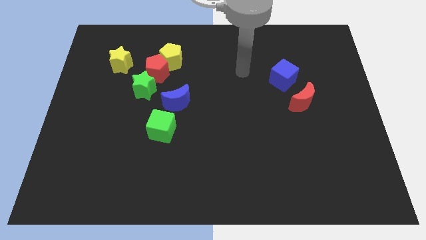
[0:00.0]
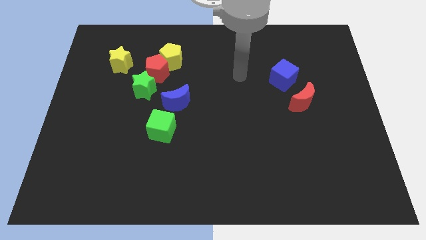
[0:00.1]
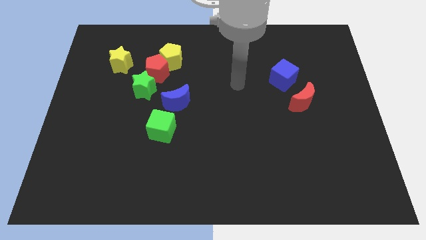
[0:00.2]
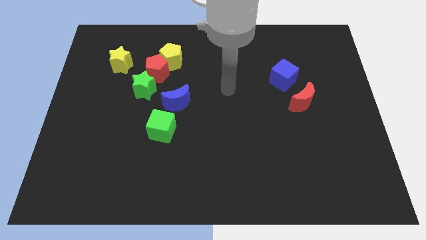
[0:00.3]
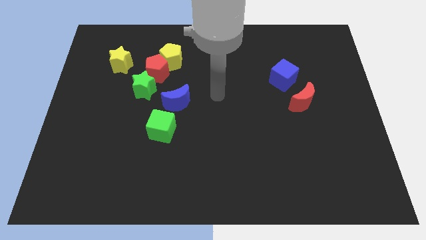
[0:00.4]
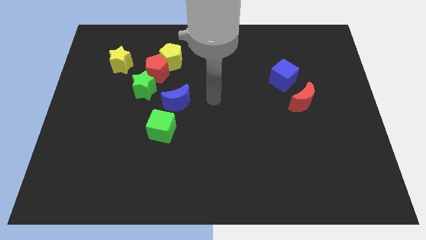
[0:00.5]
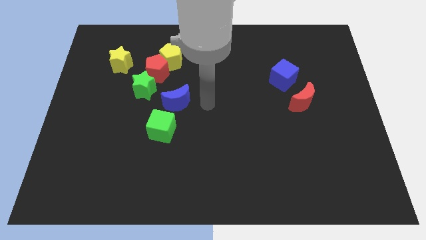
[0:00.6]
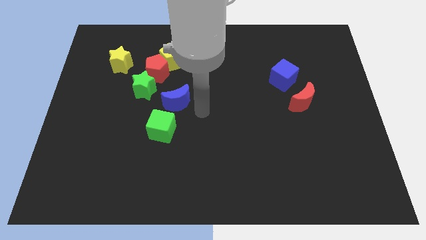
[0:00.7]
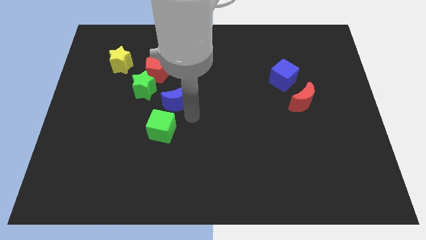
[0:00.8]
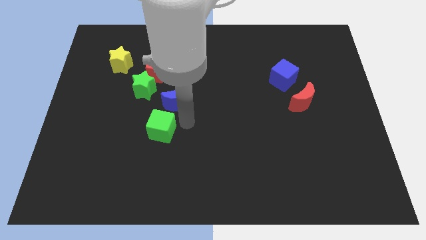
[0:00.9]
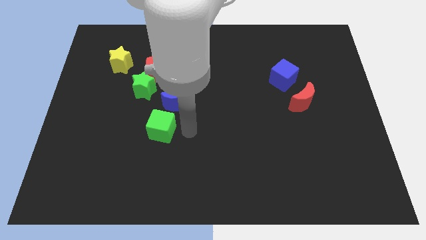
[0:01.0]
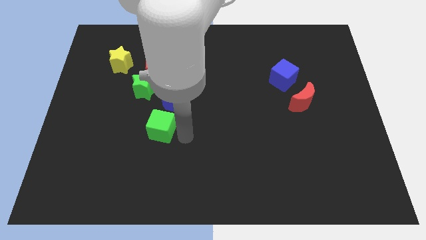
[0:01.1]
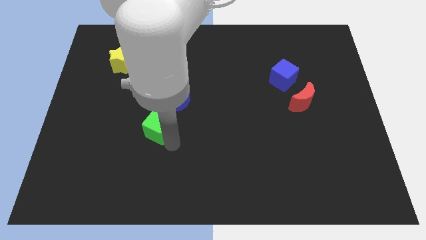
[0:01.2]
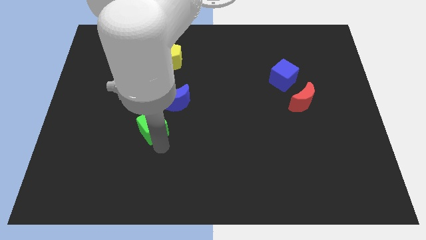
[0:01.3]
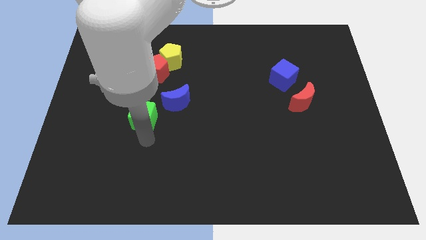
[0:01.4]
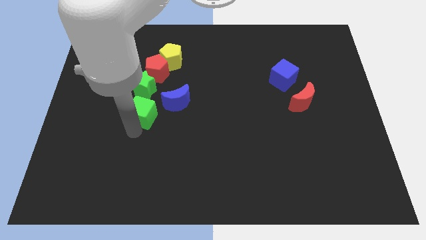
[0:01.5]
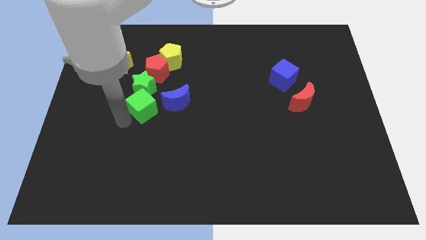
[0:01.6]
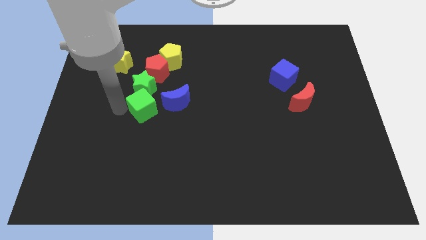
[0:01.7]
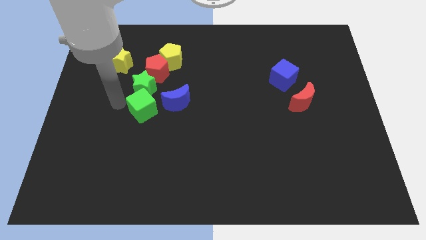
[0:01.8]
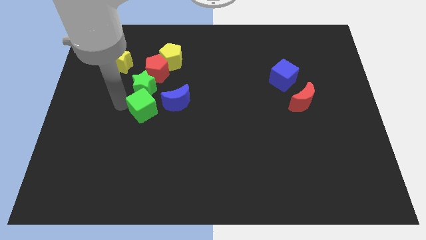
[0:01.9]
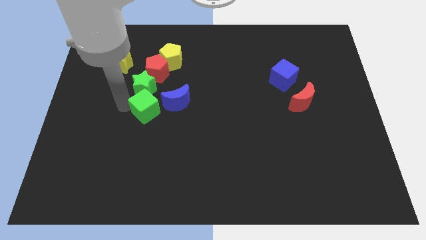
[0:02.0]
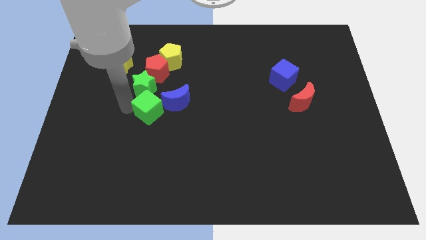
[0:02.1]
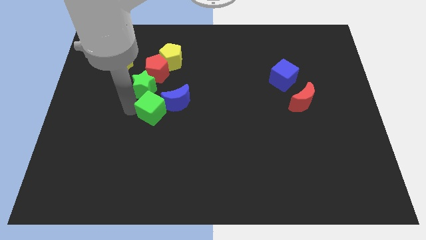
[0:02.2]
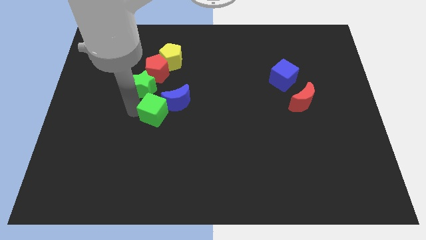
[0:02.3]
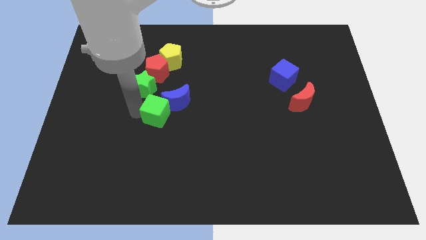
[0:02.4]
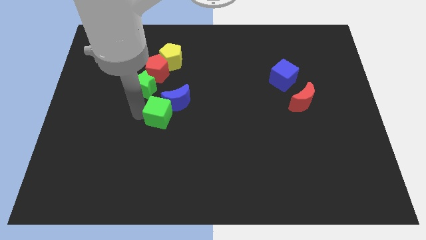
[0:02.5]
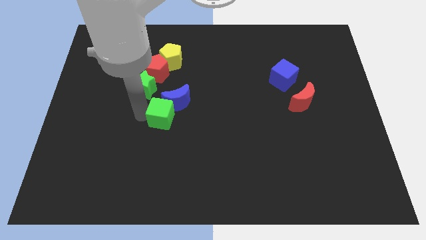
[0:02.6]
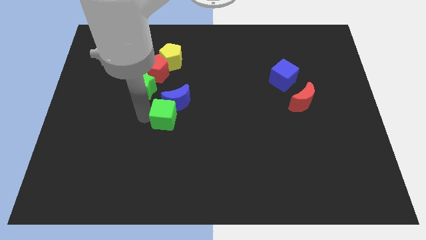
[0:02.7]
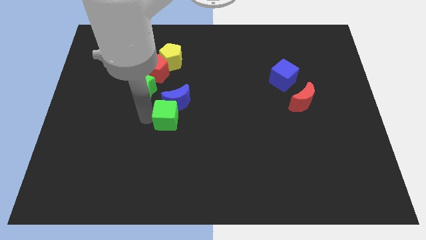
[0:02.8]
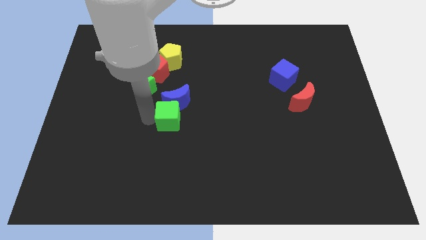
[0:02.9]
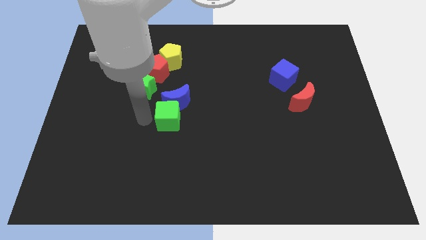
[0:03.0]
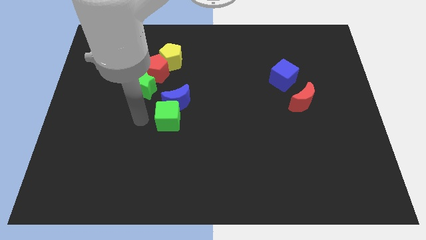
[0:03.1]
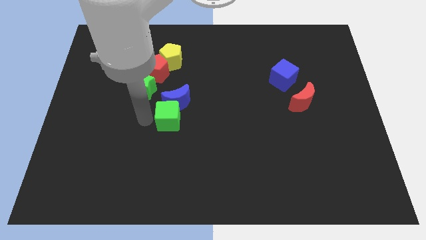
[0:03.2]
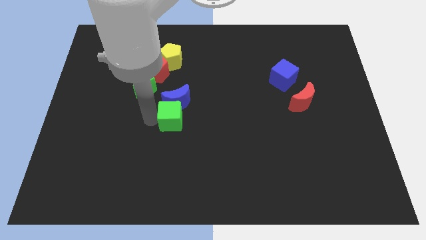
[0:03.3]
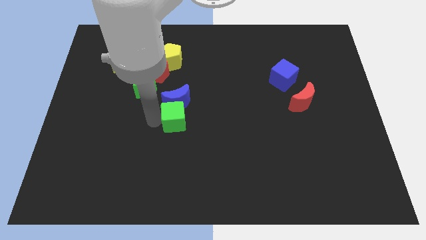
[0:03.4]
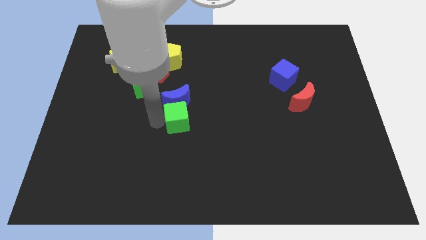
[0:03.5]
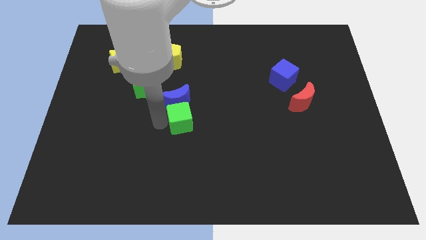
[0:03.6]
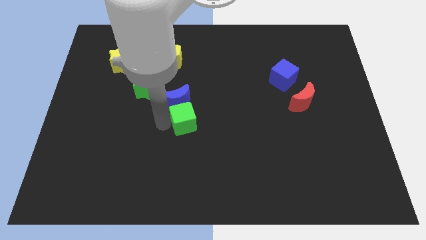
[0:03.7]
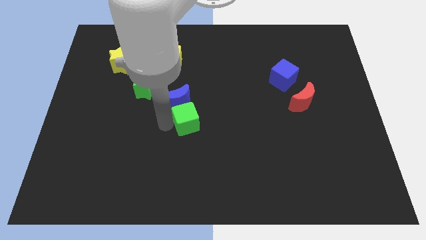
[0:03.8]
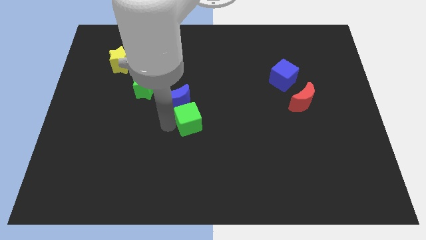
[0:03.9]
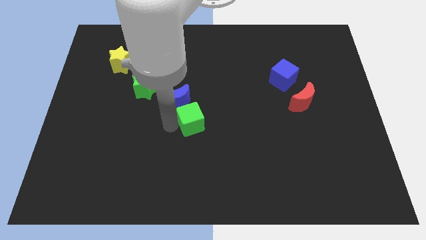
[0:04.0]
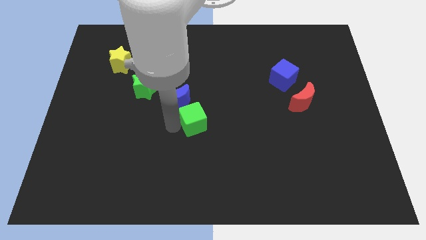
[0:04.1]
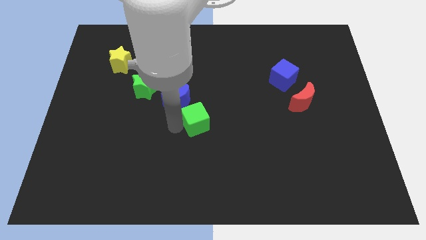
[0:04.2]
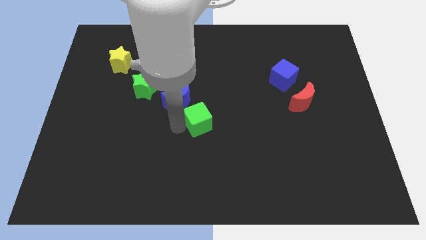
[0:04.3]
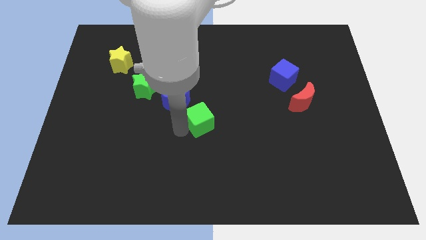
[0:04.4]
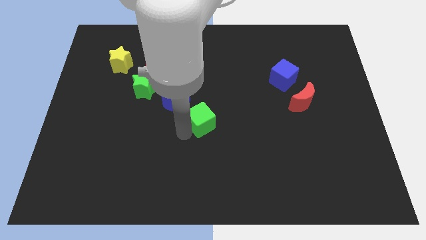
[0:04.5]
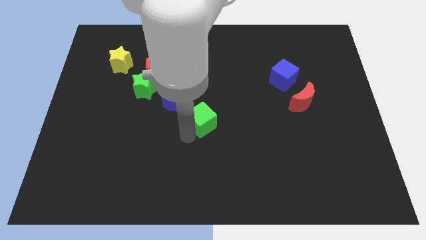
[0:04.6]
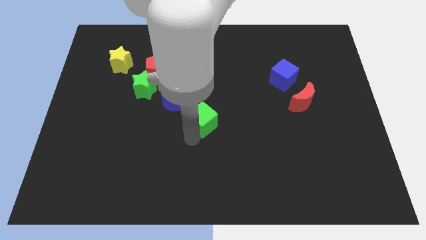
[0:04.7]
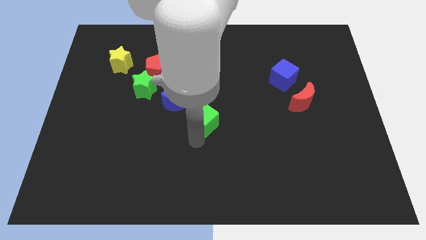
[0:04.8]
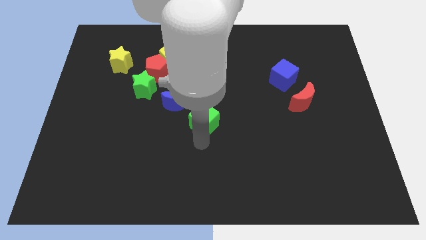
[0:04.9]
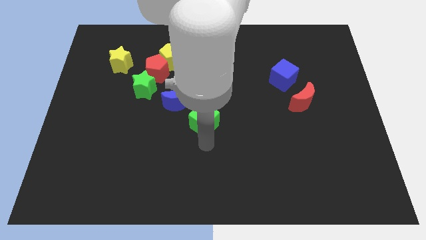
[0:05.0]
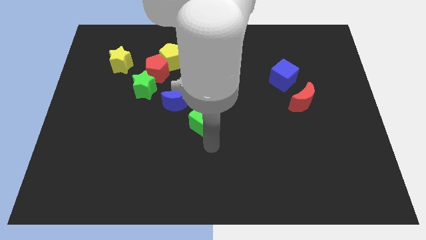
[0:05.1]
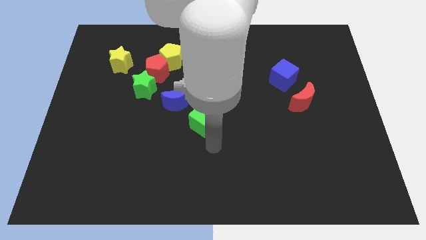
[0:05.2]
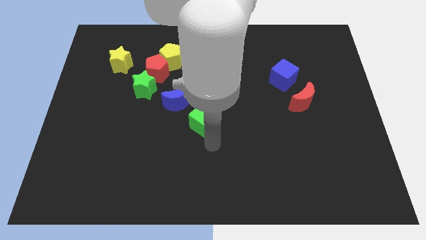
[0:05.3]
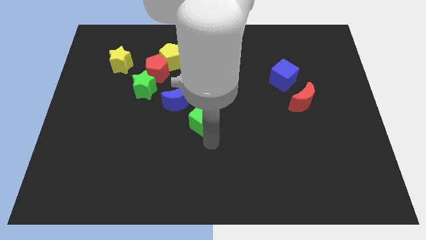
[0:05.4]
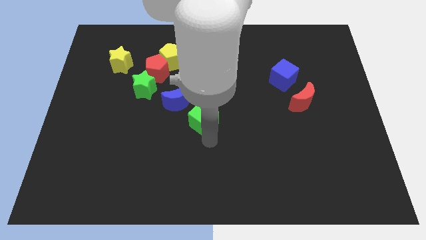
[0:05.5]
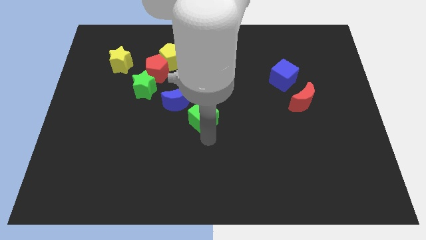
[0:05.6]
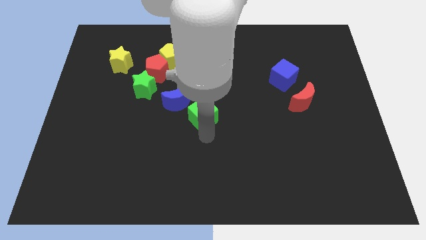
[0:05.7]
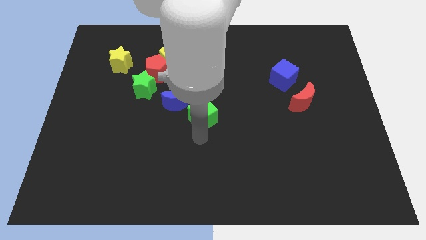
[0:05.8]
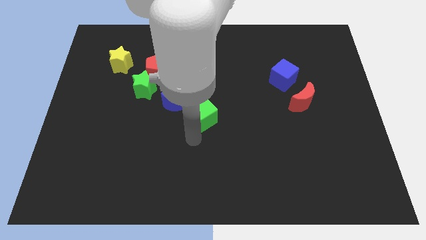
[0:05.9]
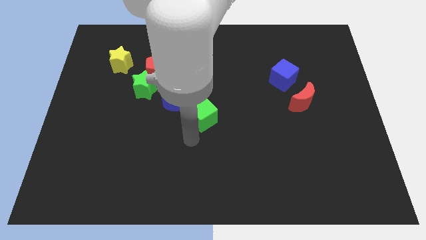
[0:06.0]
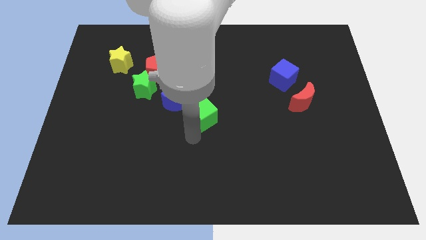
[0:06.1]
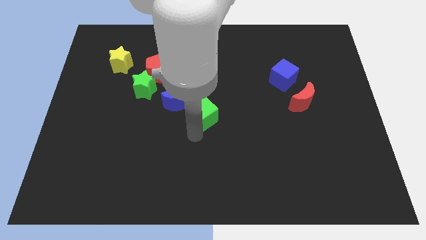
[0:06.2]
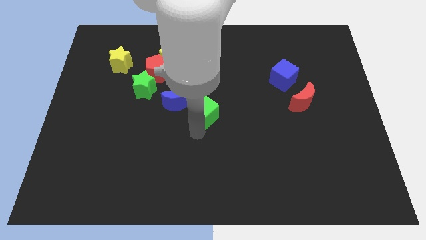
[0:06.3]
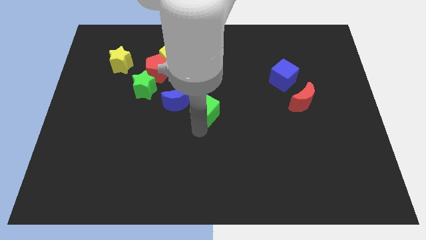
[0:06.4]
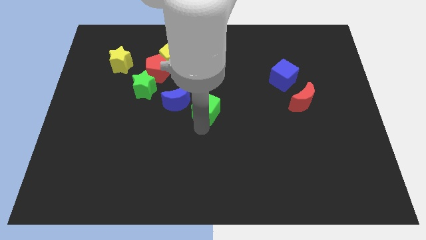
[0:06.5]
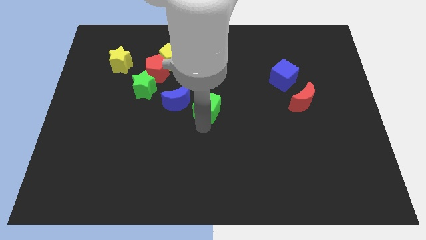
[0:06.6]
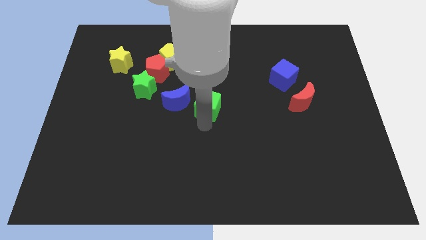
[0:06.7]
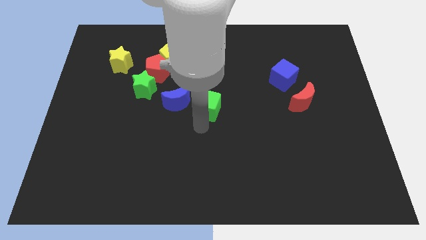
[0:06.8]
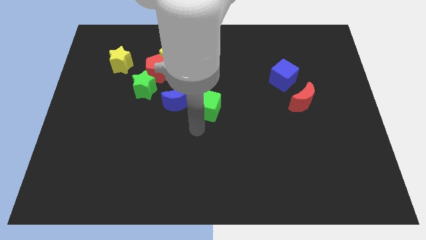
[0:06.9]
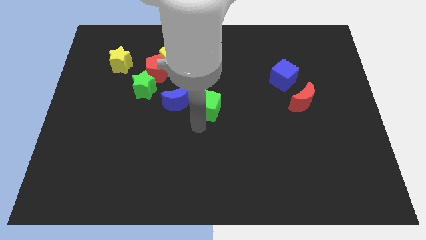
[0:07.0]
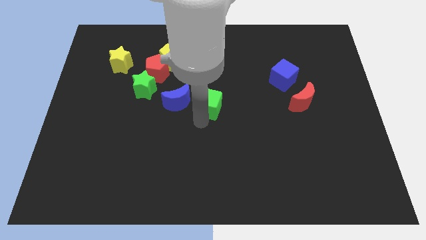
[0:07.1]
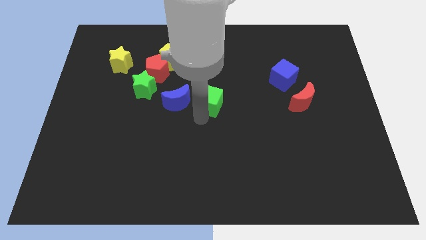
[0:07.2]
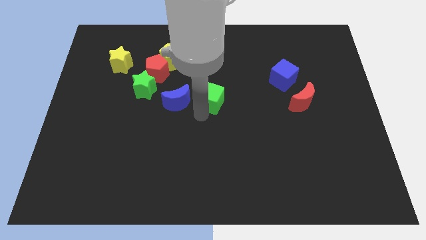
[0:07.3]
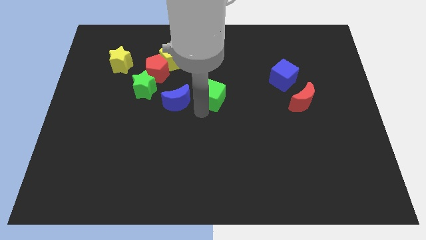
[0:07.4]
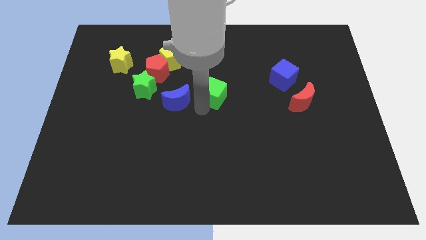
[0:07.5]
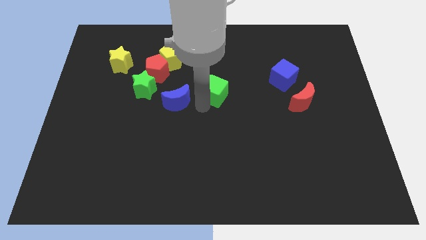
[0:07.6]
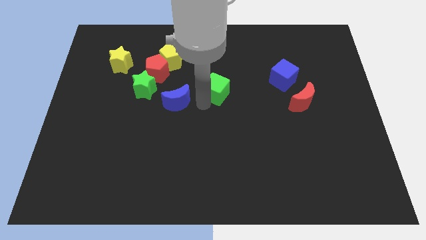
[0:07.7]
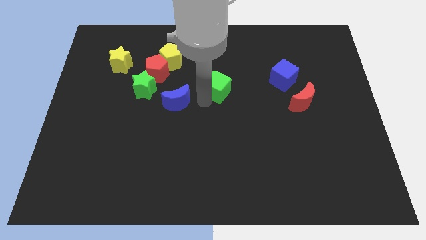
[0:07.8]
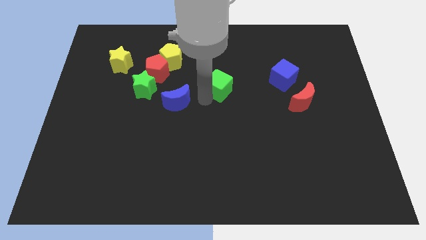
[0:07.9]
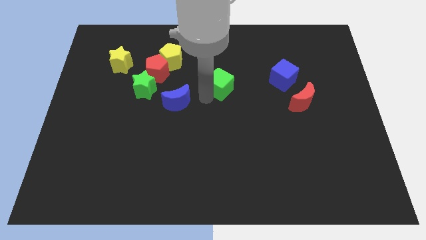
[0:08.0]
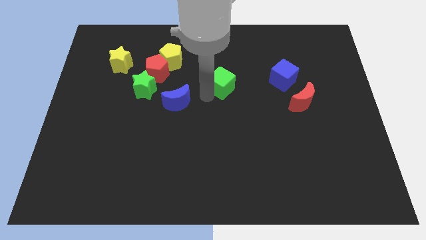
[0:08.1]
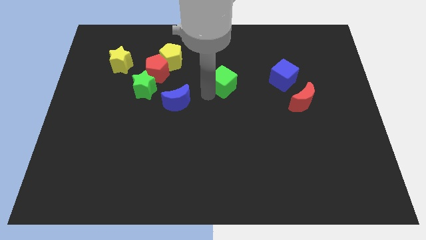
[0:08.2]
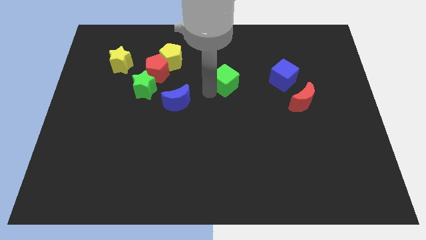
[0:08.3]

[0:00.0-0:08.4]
slide the green cube upwards and then right
